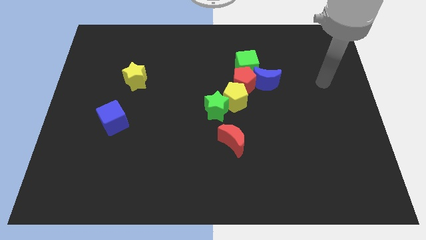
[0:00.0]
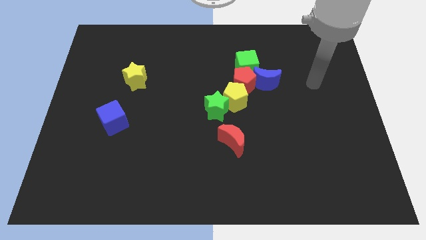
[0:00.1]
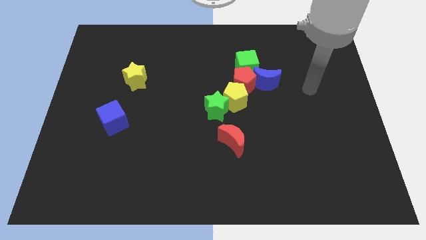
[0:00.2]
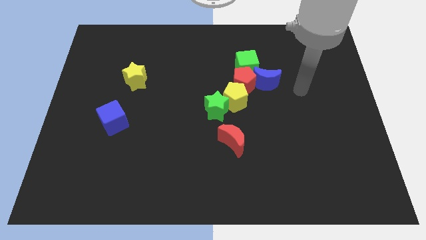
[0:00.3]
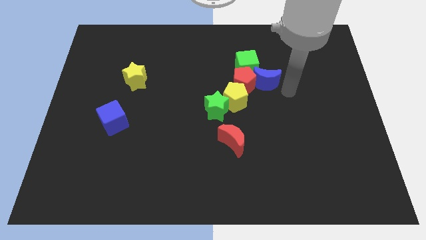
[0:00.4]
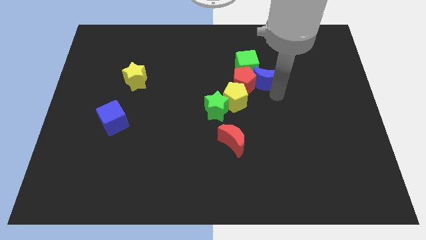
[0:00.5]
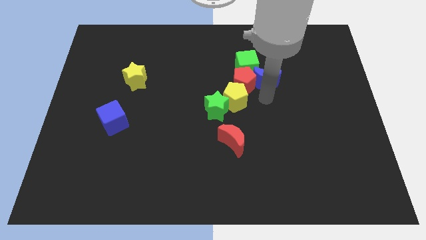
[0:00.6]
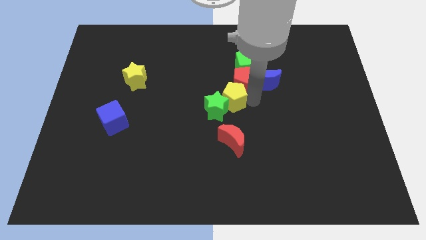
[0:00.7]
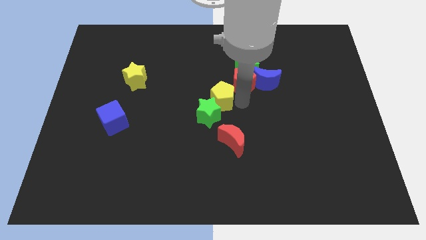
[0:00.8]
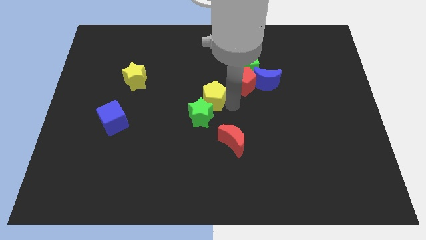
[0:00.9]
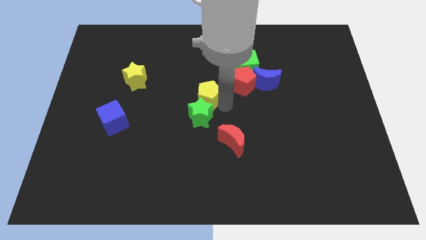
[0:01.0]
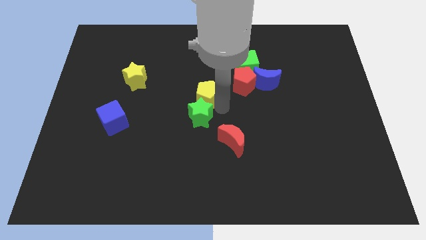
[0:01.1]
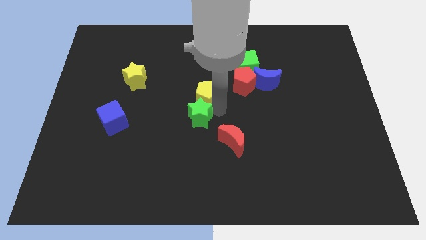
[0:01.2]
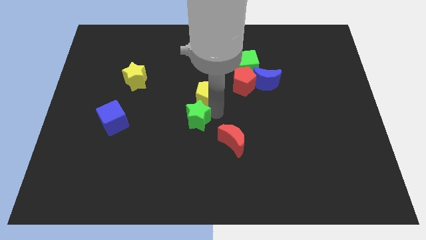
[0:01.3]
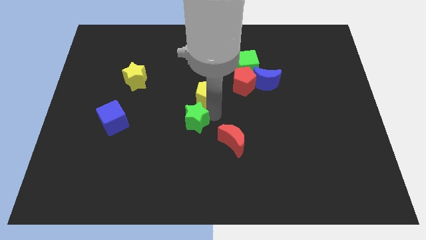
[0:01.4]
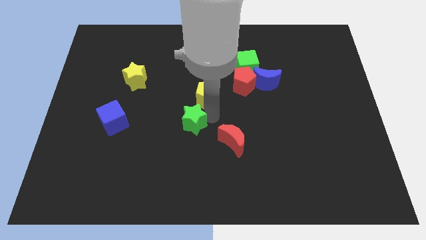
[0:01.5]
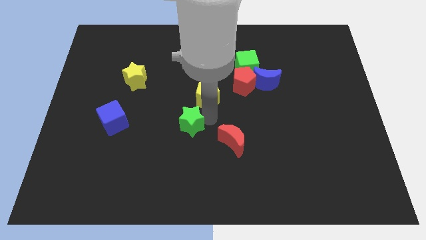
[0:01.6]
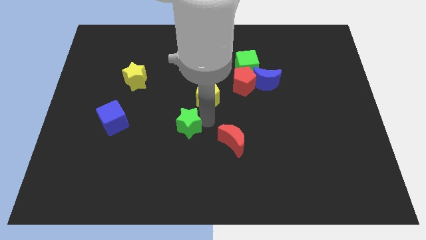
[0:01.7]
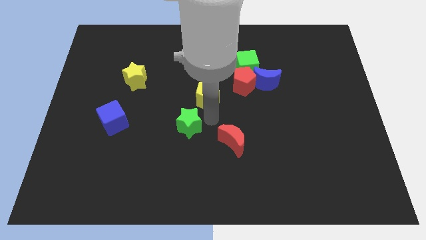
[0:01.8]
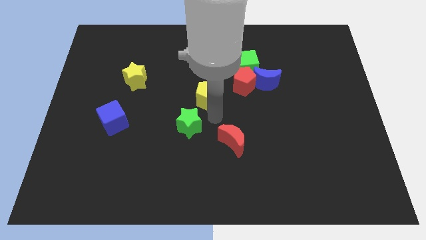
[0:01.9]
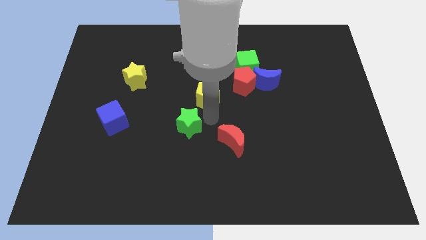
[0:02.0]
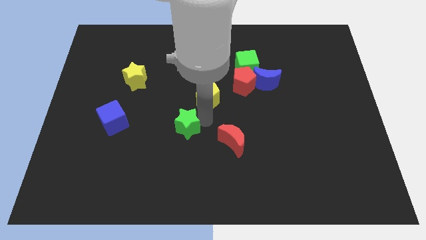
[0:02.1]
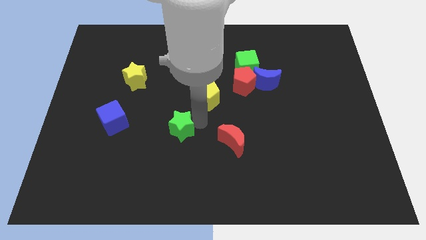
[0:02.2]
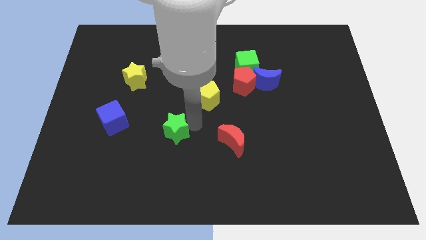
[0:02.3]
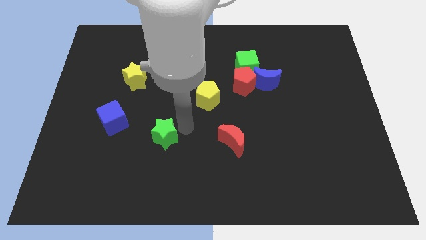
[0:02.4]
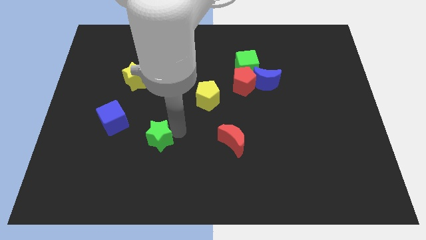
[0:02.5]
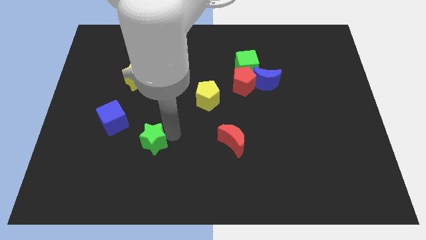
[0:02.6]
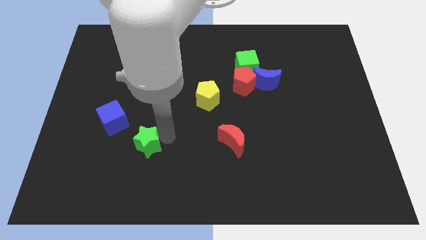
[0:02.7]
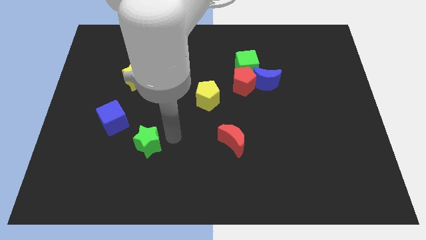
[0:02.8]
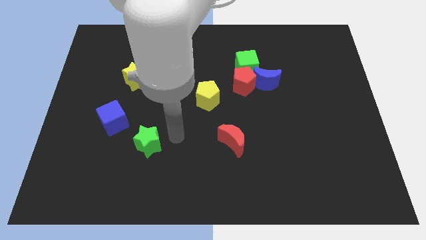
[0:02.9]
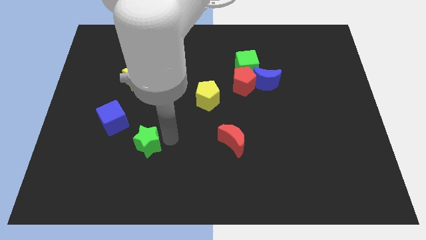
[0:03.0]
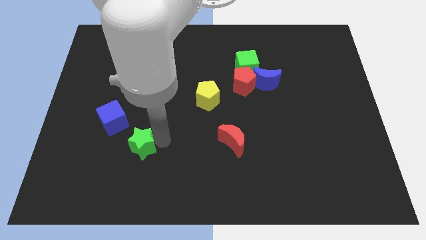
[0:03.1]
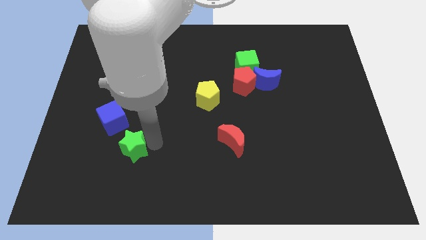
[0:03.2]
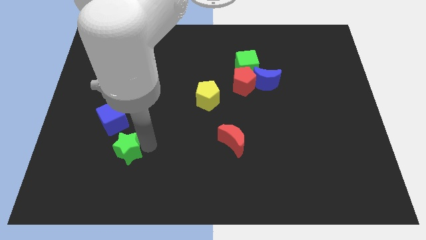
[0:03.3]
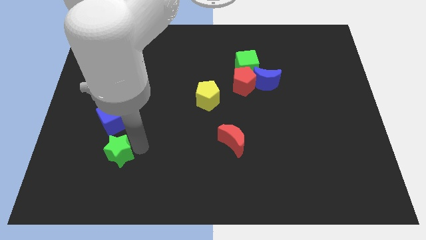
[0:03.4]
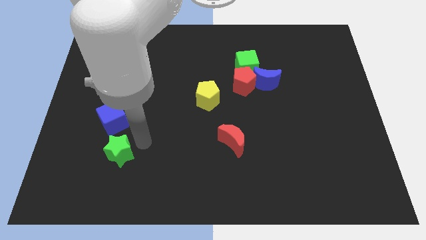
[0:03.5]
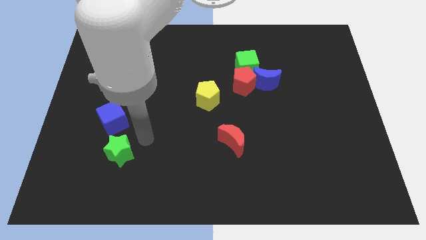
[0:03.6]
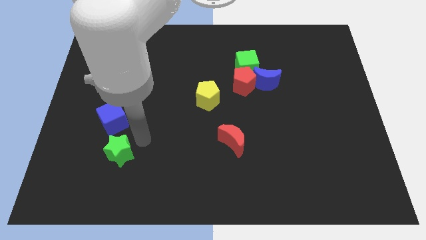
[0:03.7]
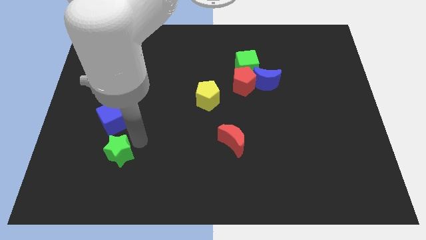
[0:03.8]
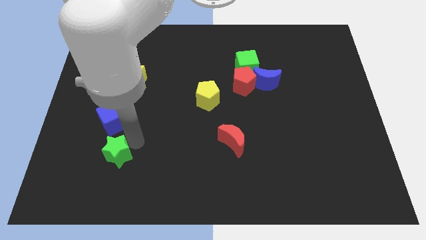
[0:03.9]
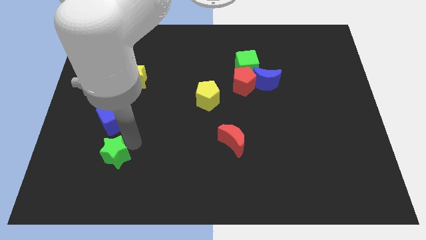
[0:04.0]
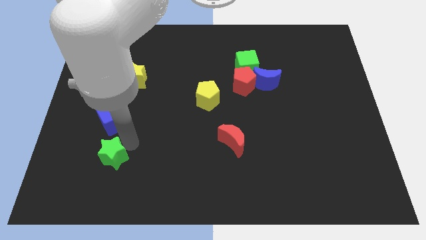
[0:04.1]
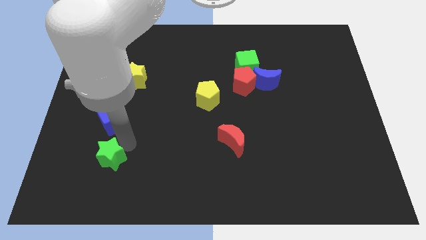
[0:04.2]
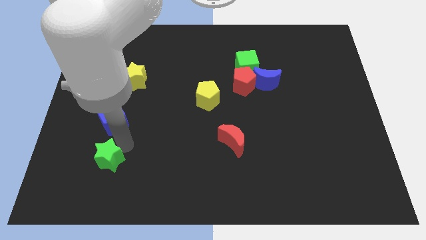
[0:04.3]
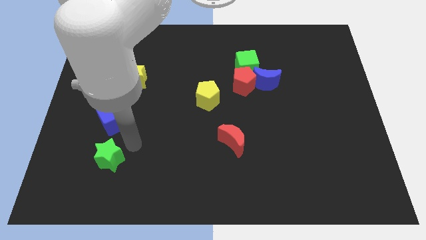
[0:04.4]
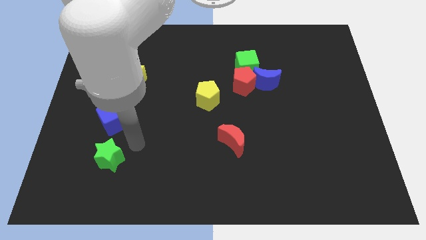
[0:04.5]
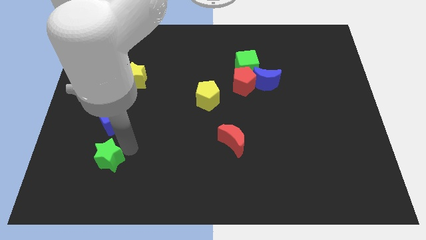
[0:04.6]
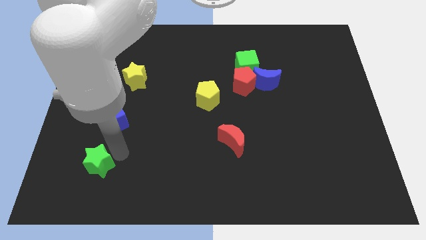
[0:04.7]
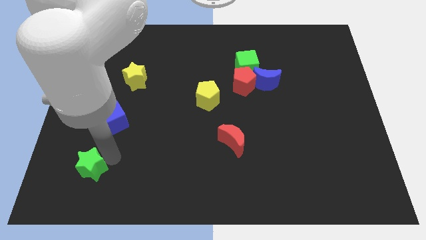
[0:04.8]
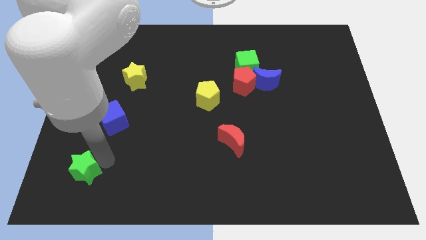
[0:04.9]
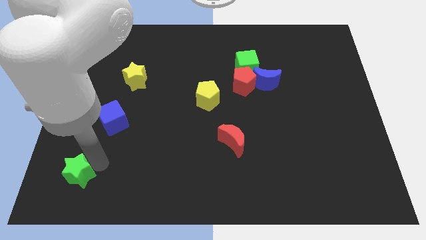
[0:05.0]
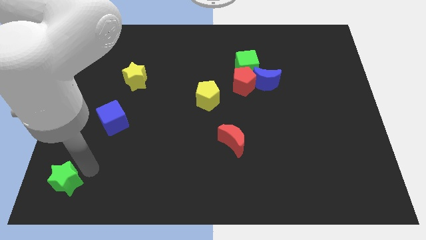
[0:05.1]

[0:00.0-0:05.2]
put the green star to the bottom left corner

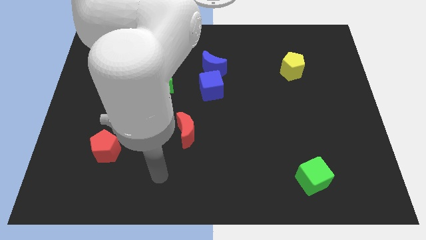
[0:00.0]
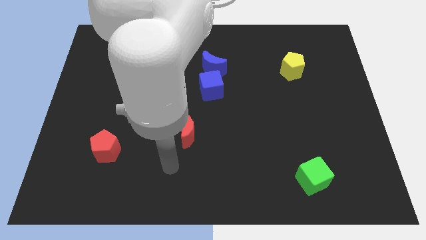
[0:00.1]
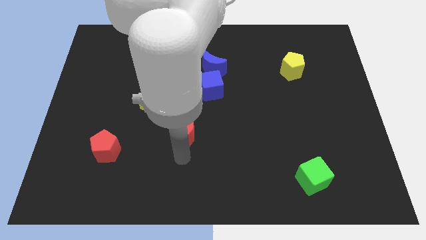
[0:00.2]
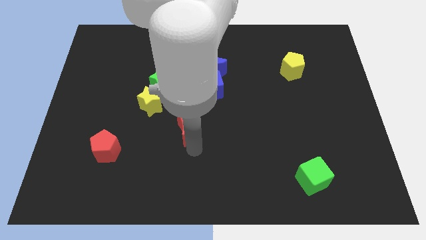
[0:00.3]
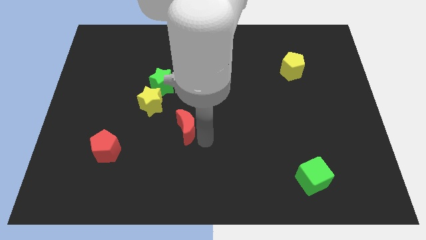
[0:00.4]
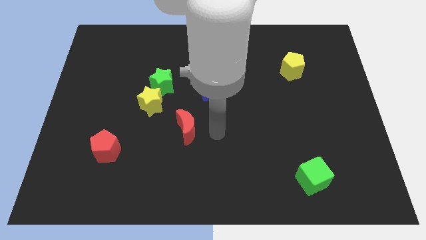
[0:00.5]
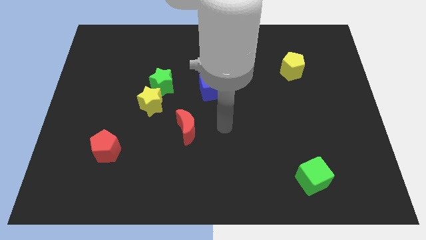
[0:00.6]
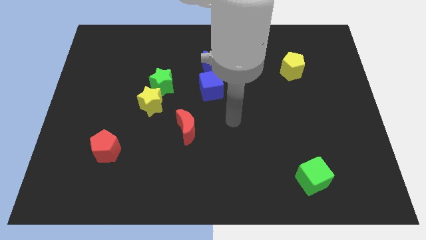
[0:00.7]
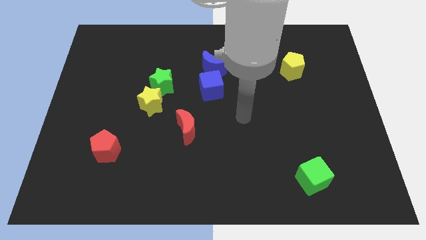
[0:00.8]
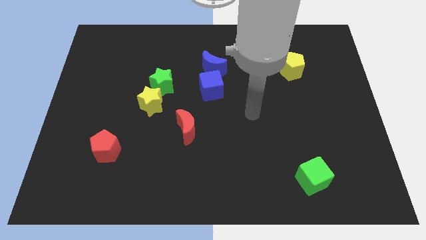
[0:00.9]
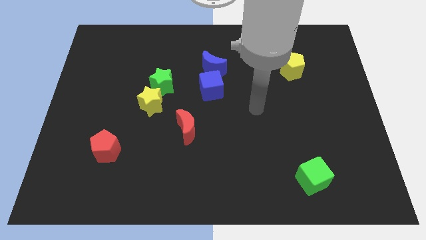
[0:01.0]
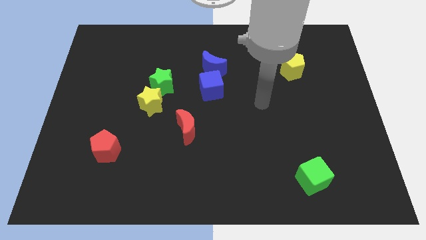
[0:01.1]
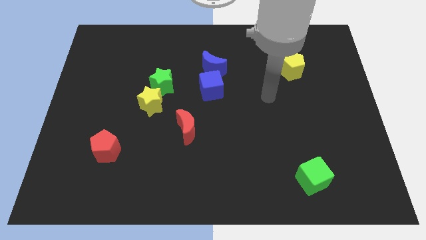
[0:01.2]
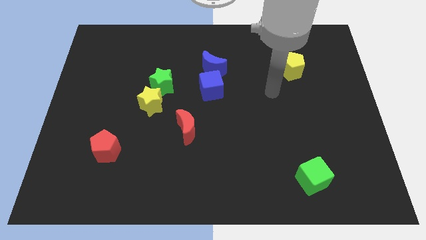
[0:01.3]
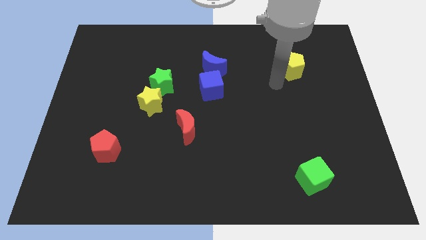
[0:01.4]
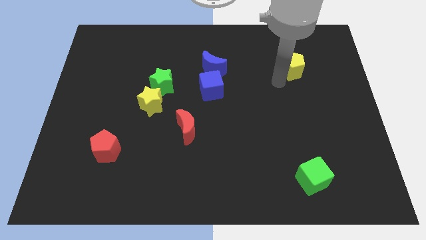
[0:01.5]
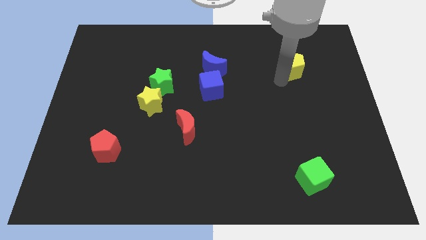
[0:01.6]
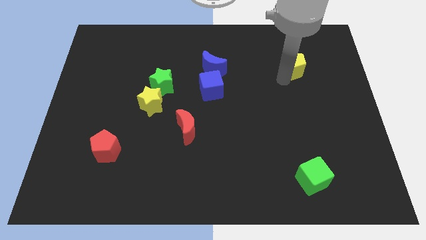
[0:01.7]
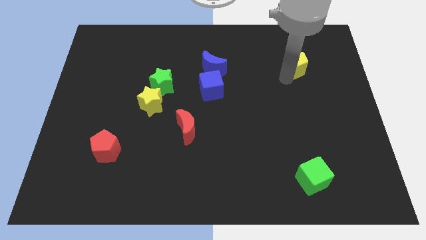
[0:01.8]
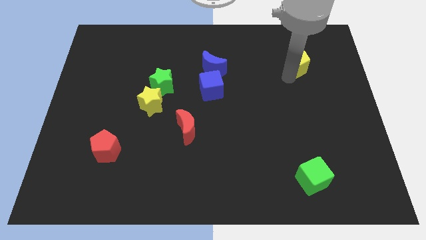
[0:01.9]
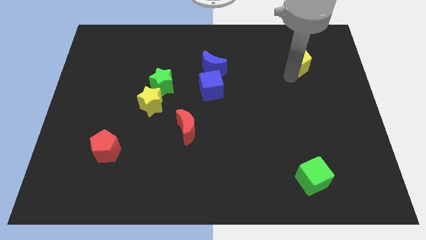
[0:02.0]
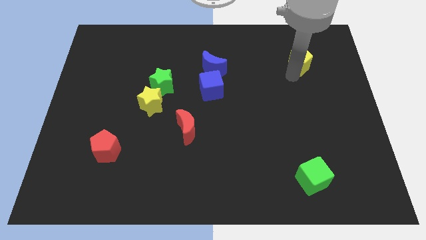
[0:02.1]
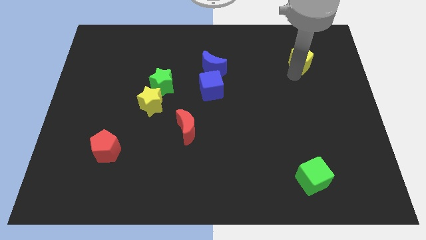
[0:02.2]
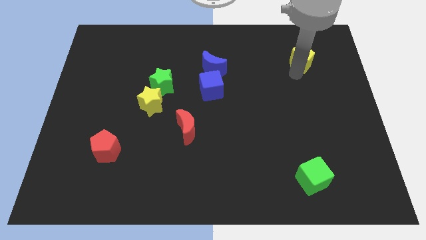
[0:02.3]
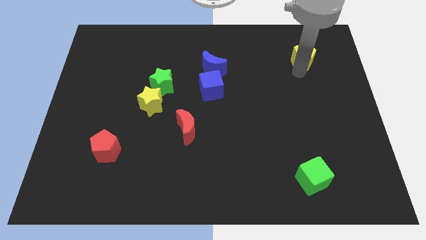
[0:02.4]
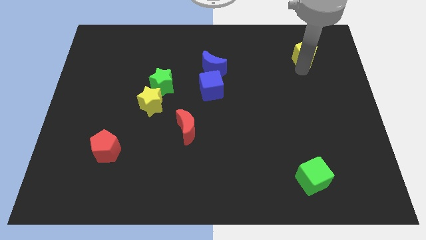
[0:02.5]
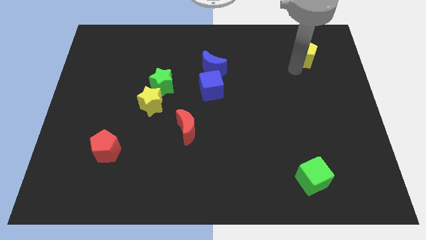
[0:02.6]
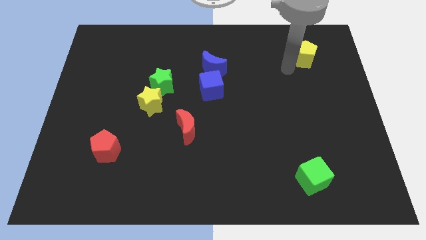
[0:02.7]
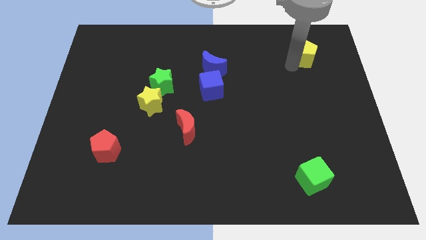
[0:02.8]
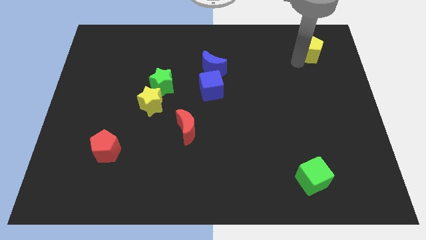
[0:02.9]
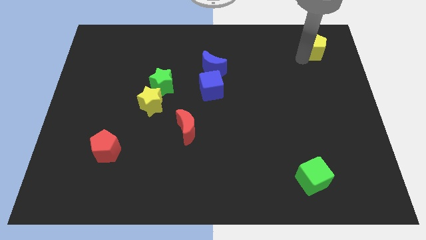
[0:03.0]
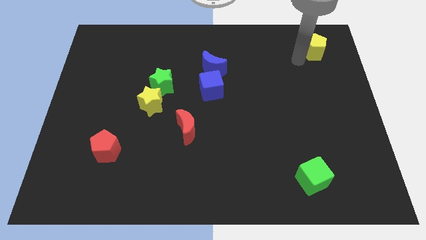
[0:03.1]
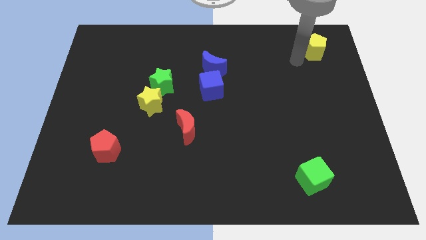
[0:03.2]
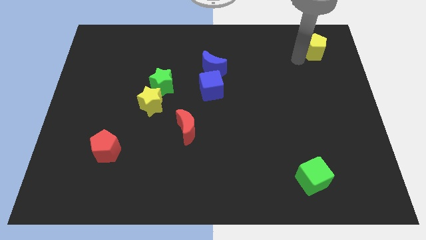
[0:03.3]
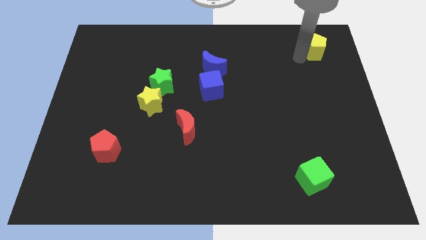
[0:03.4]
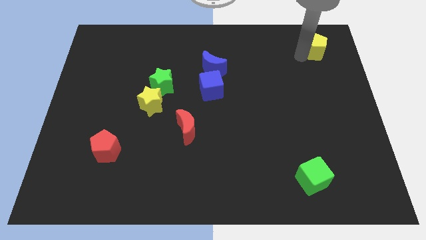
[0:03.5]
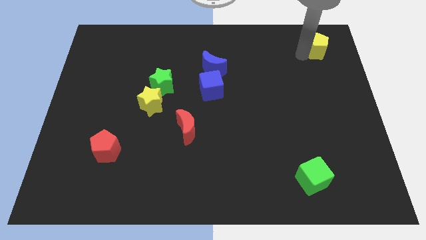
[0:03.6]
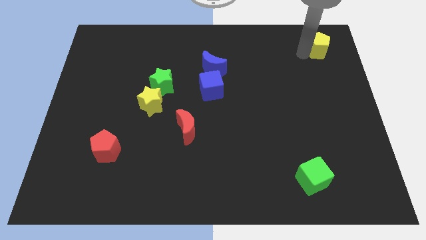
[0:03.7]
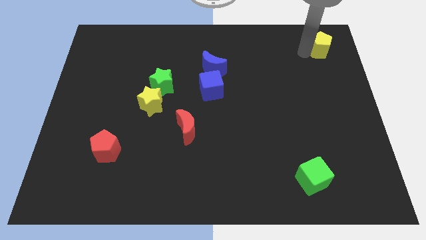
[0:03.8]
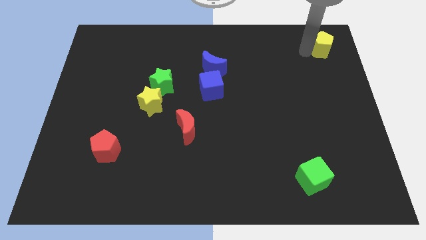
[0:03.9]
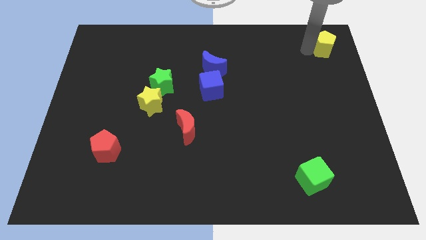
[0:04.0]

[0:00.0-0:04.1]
put the yellow pentagon to the top right of the board
